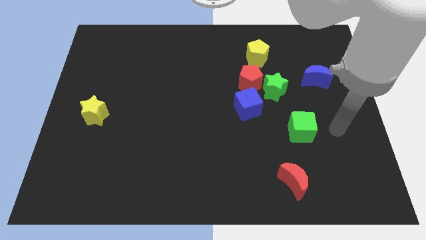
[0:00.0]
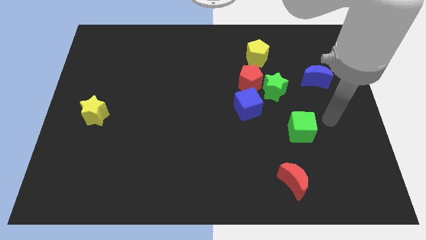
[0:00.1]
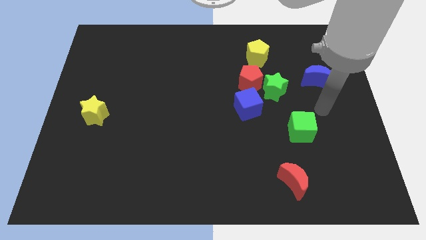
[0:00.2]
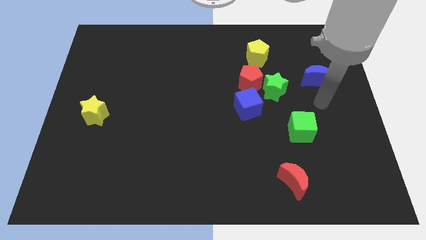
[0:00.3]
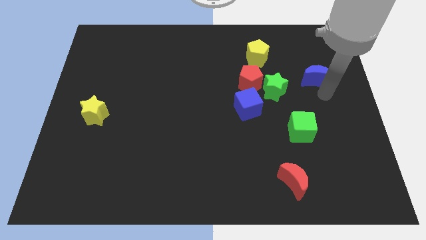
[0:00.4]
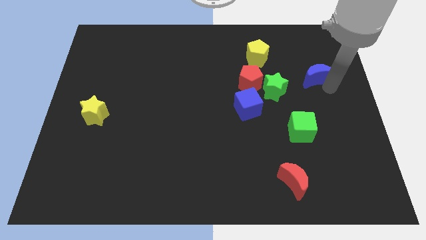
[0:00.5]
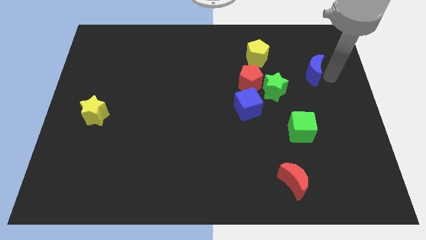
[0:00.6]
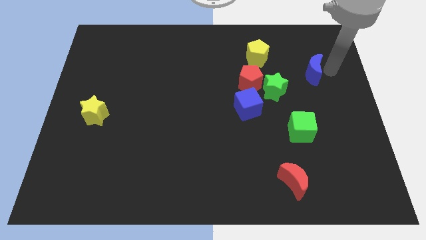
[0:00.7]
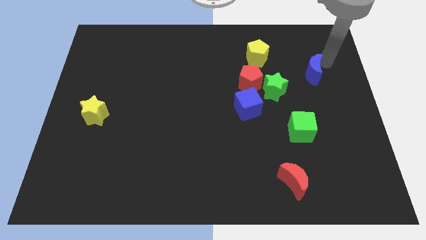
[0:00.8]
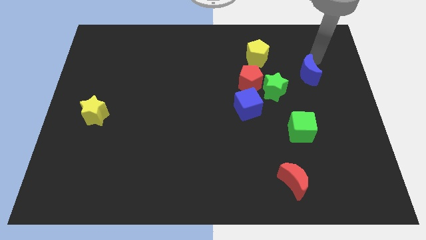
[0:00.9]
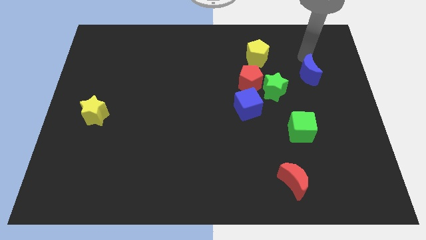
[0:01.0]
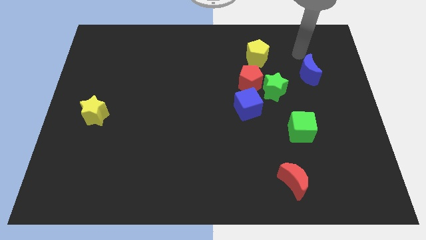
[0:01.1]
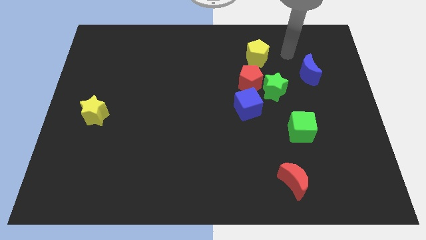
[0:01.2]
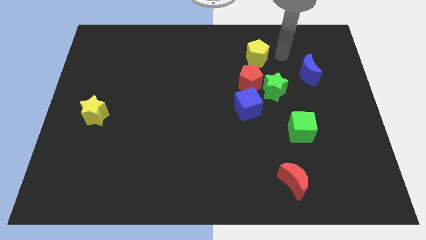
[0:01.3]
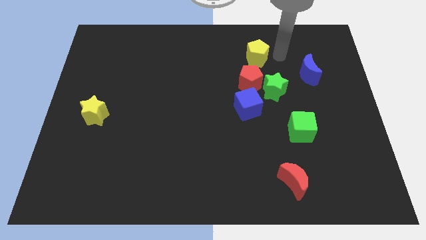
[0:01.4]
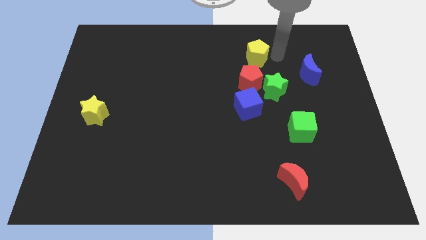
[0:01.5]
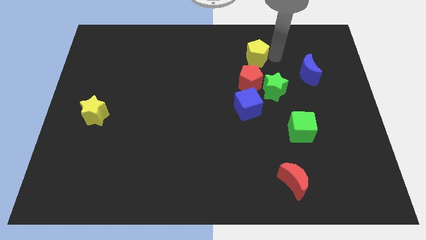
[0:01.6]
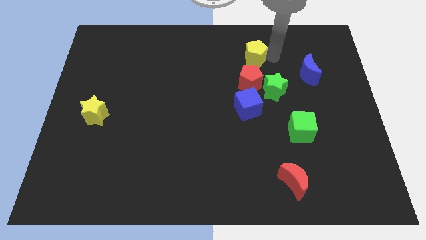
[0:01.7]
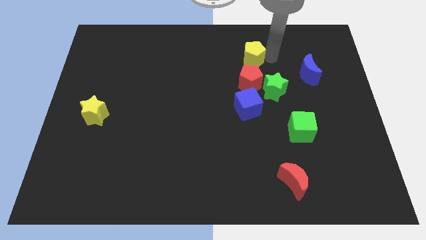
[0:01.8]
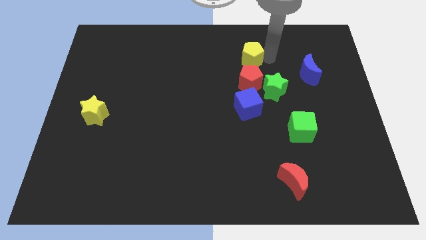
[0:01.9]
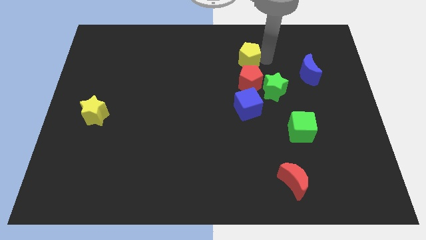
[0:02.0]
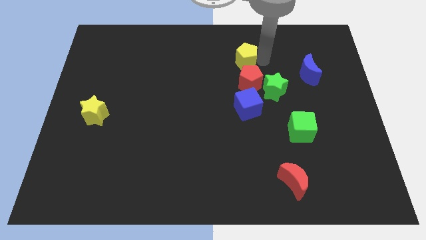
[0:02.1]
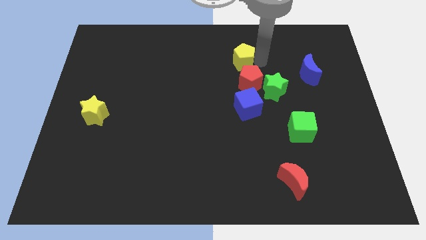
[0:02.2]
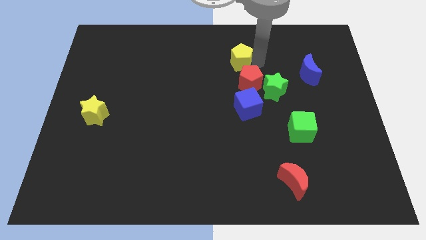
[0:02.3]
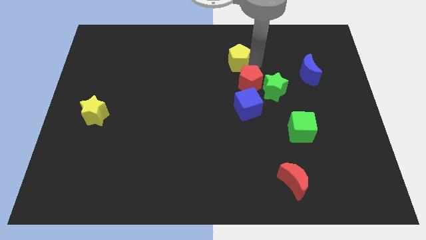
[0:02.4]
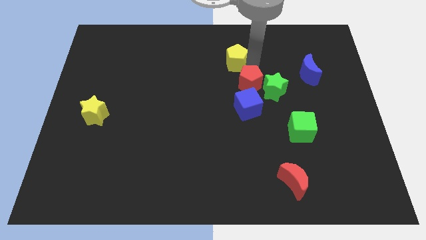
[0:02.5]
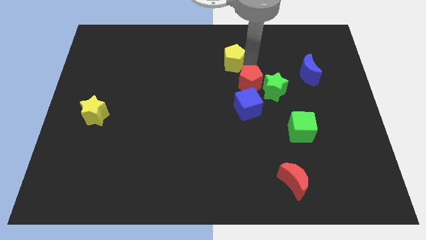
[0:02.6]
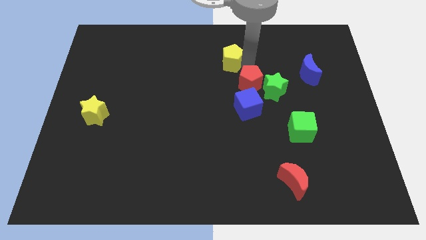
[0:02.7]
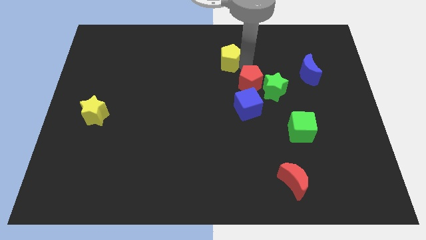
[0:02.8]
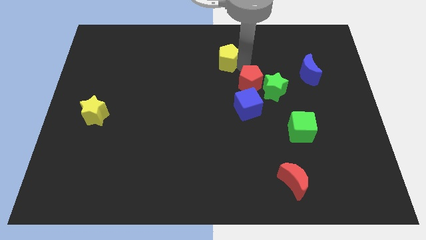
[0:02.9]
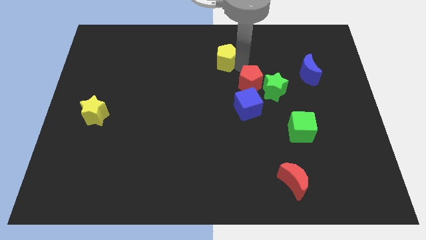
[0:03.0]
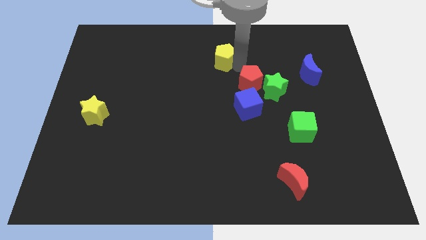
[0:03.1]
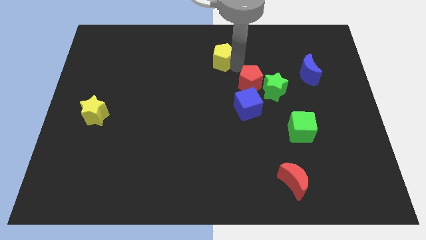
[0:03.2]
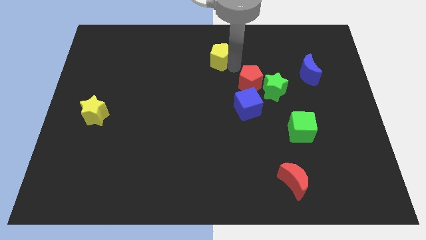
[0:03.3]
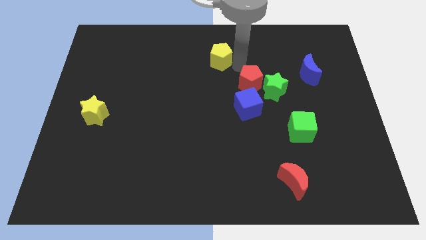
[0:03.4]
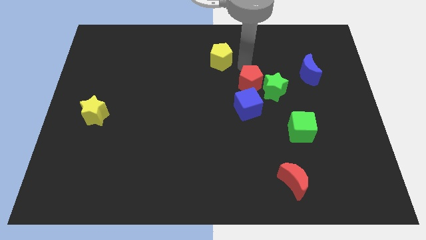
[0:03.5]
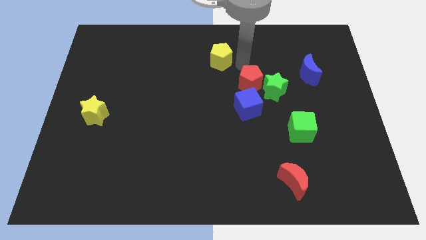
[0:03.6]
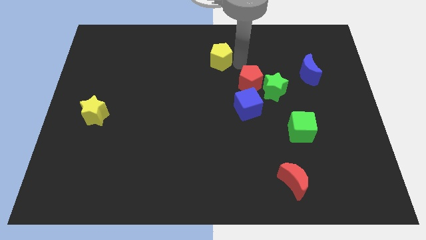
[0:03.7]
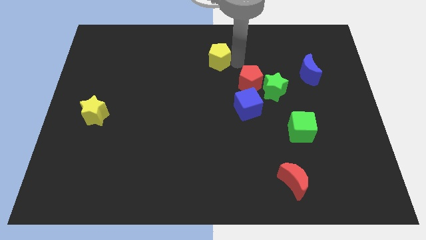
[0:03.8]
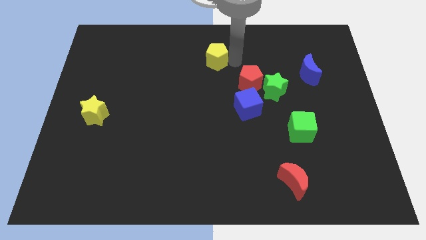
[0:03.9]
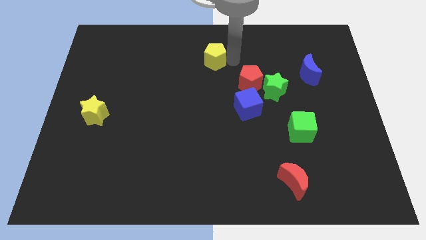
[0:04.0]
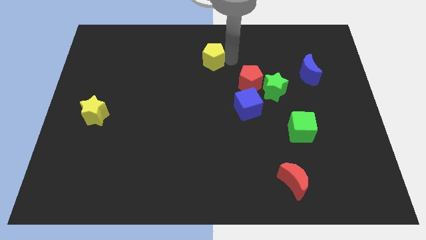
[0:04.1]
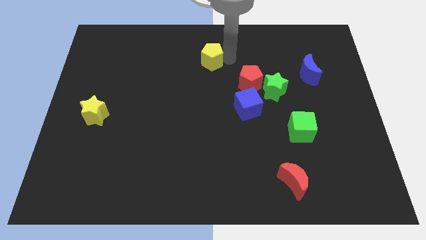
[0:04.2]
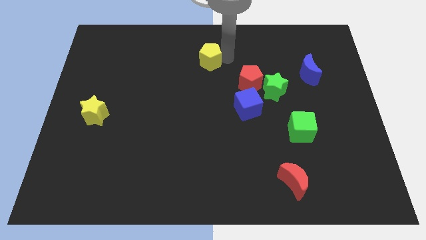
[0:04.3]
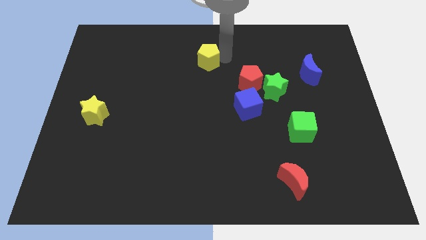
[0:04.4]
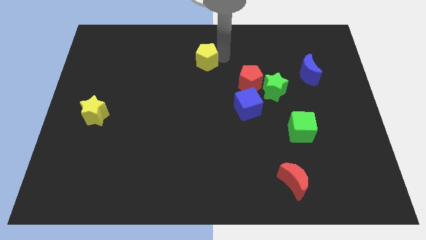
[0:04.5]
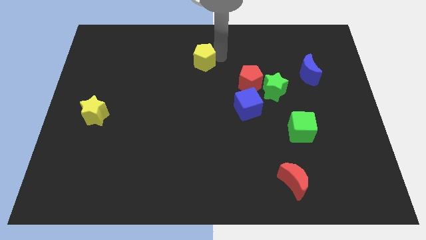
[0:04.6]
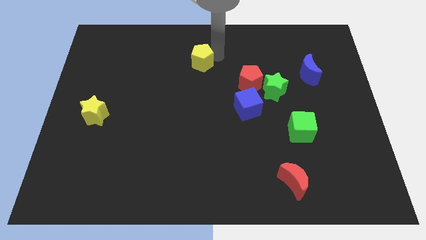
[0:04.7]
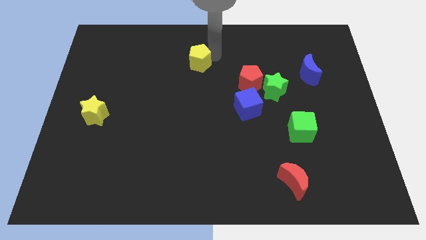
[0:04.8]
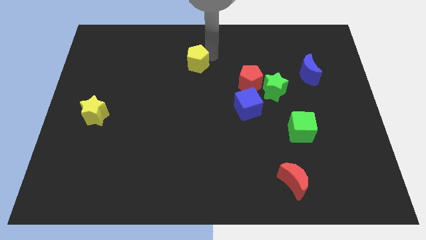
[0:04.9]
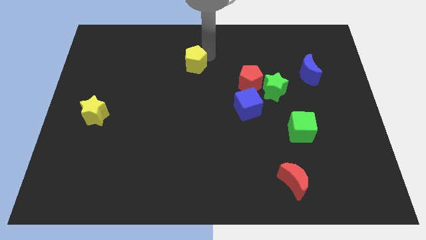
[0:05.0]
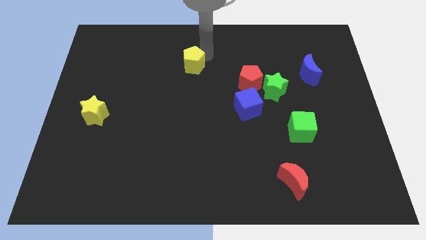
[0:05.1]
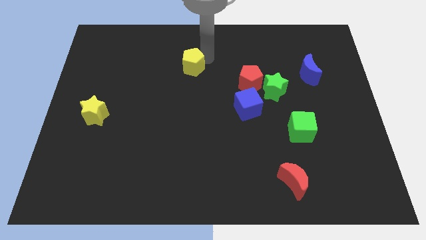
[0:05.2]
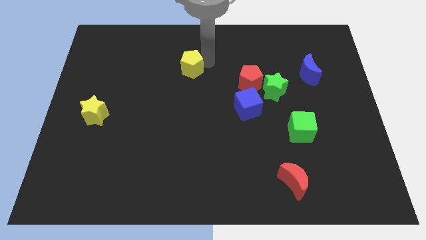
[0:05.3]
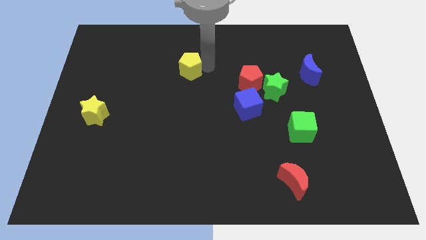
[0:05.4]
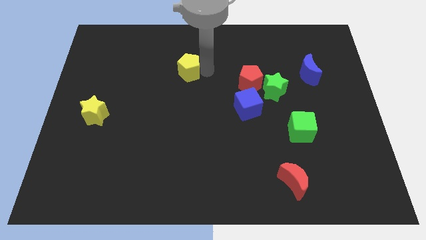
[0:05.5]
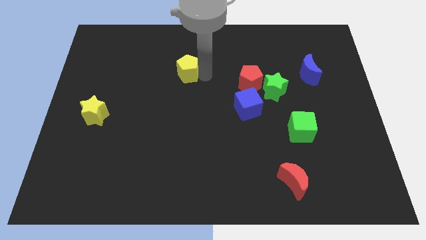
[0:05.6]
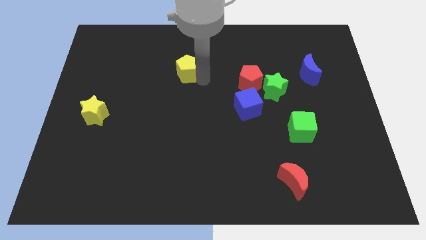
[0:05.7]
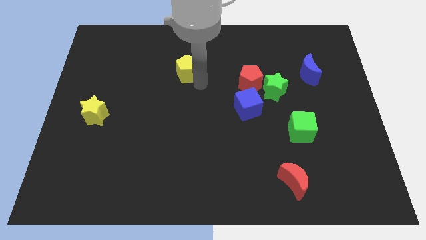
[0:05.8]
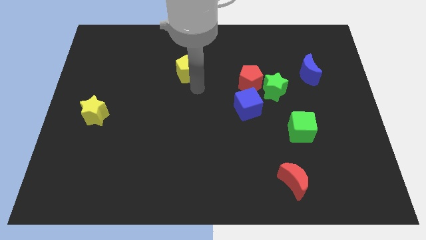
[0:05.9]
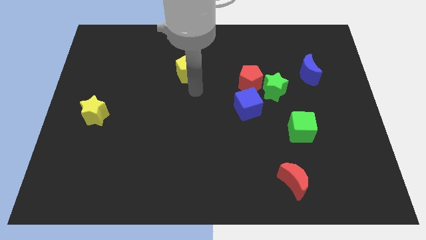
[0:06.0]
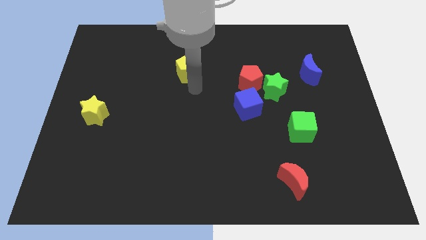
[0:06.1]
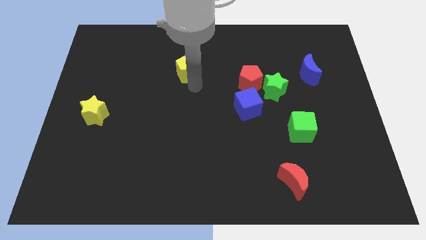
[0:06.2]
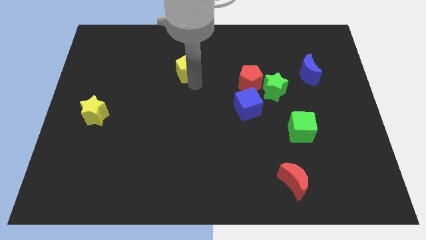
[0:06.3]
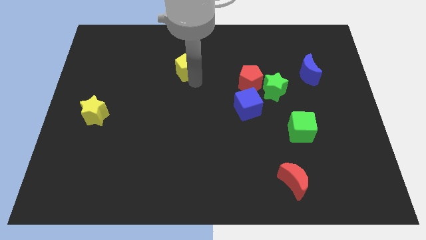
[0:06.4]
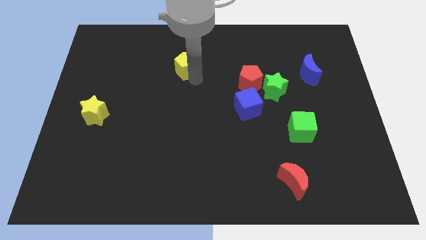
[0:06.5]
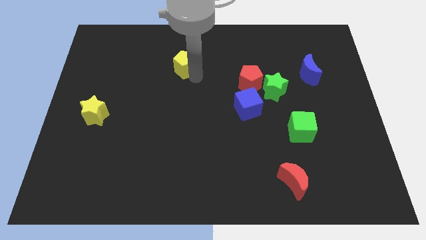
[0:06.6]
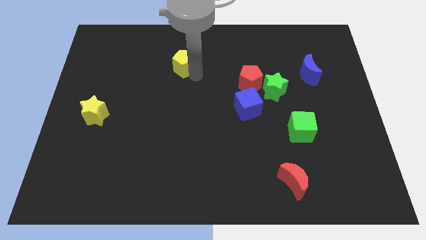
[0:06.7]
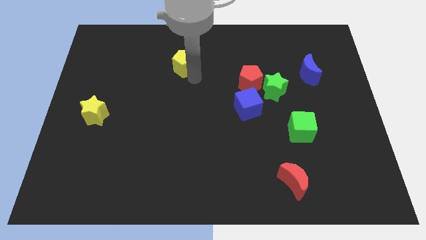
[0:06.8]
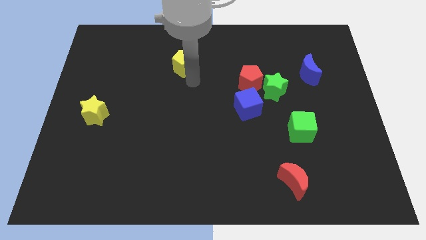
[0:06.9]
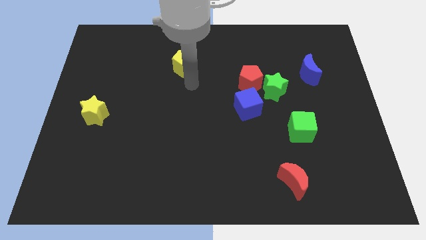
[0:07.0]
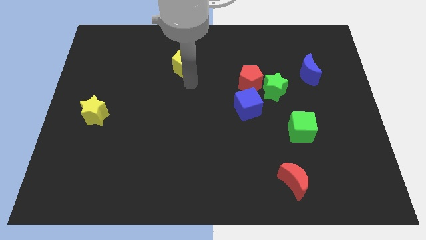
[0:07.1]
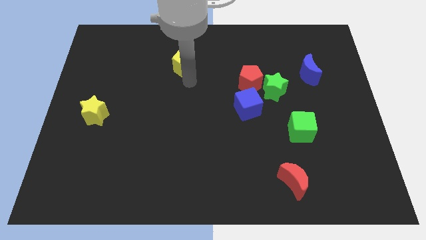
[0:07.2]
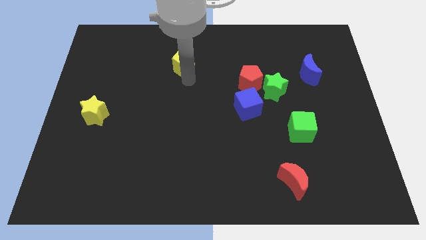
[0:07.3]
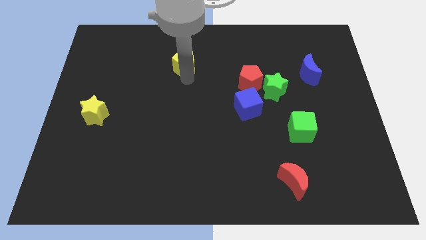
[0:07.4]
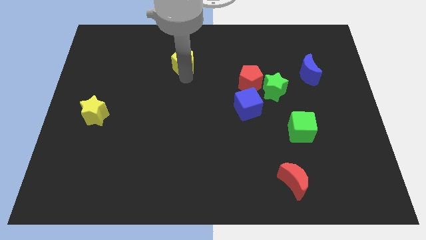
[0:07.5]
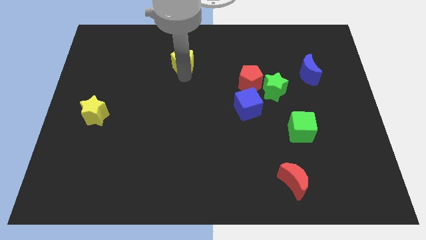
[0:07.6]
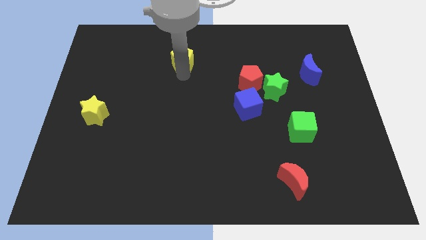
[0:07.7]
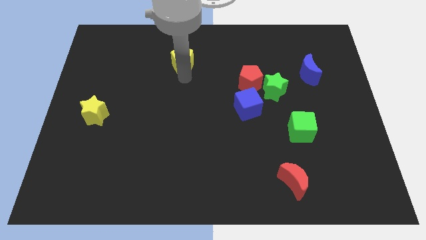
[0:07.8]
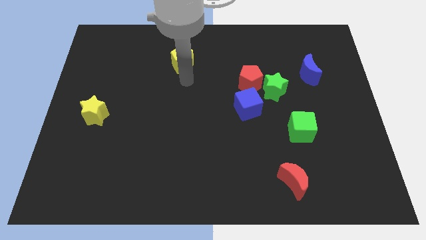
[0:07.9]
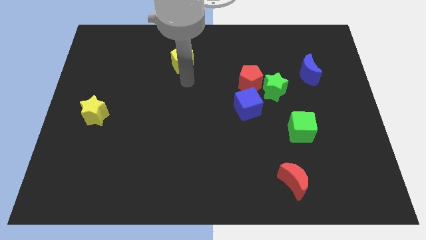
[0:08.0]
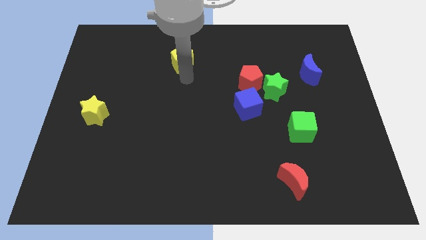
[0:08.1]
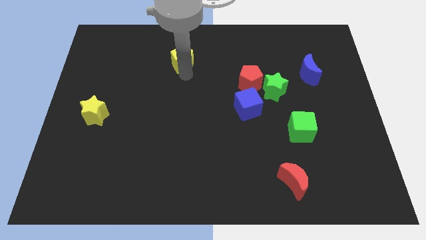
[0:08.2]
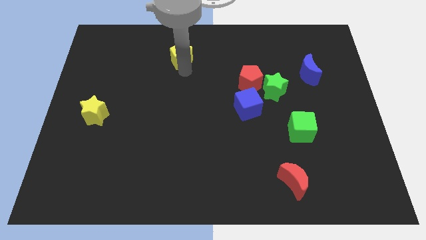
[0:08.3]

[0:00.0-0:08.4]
slide the yellow pentagon to the left
